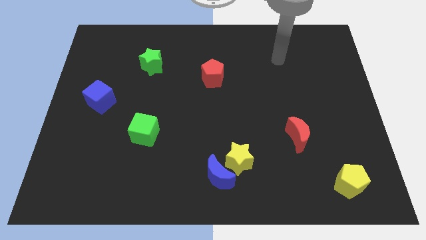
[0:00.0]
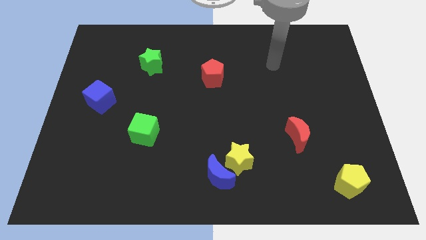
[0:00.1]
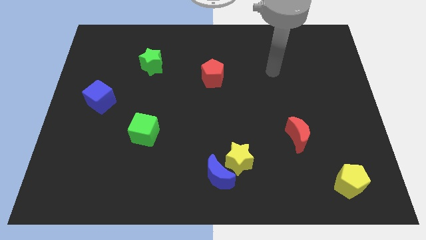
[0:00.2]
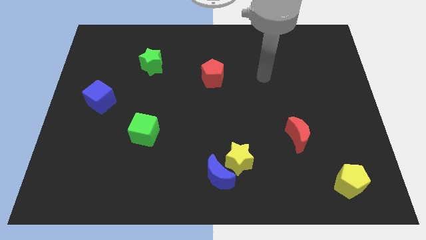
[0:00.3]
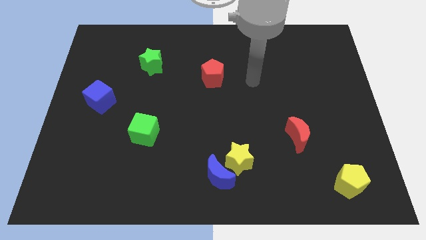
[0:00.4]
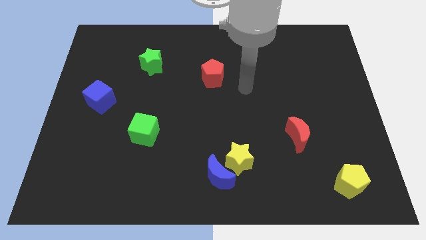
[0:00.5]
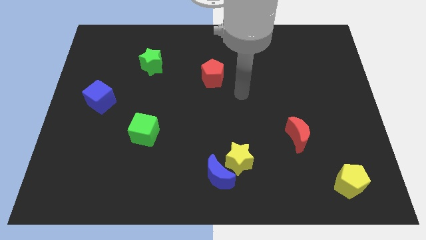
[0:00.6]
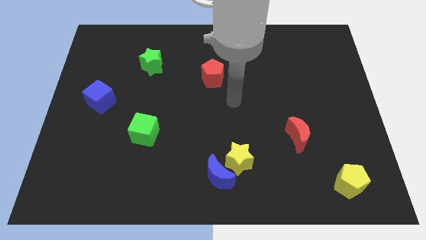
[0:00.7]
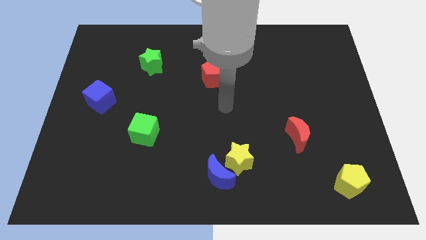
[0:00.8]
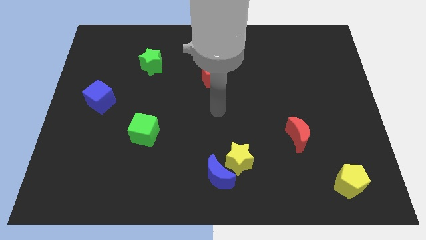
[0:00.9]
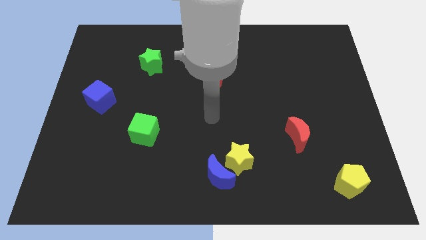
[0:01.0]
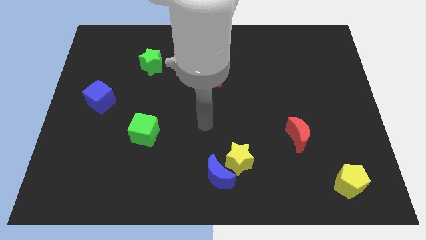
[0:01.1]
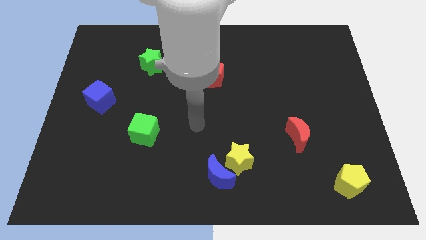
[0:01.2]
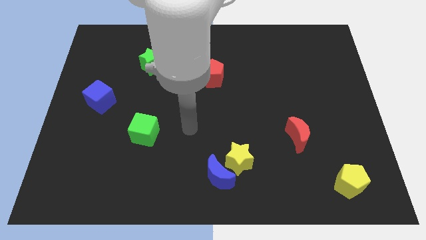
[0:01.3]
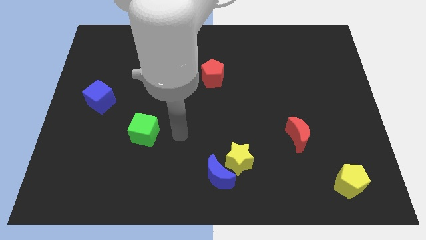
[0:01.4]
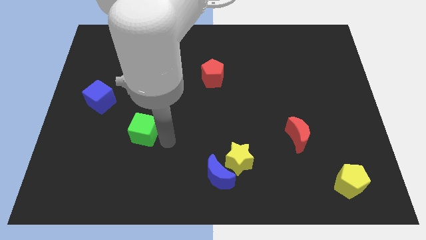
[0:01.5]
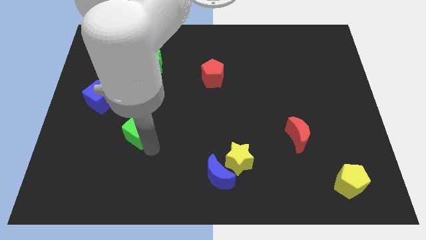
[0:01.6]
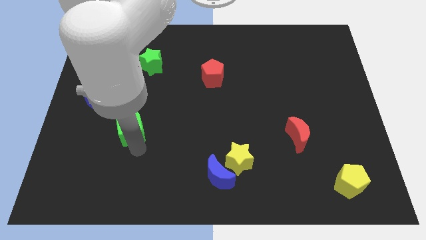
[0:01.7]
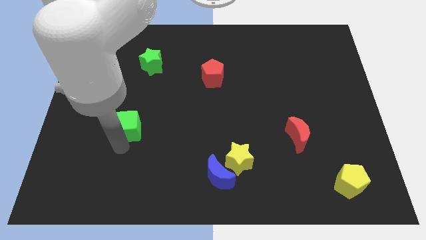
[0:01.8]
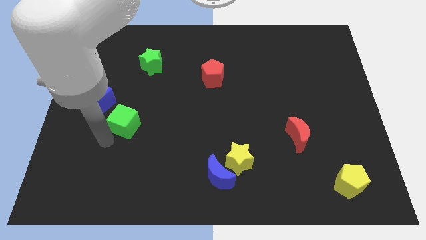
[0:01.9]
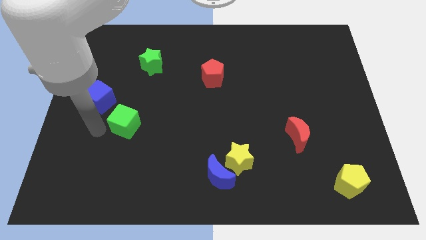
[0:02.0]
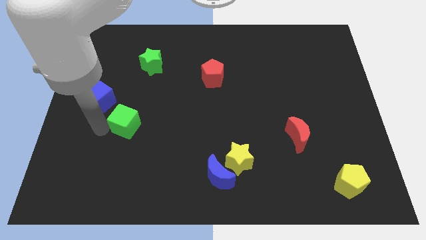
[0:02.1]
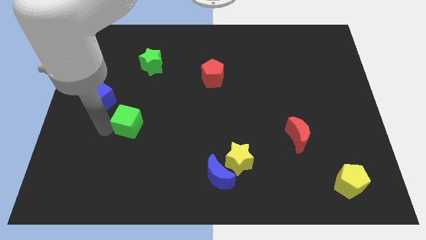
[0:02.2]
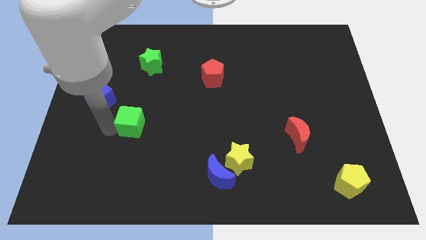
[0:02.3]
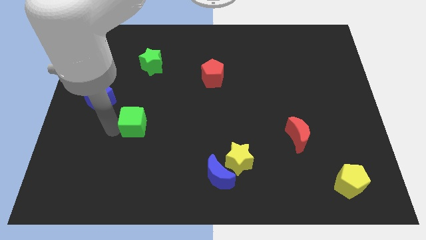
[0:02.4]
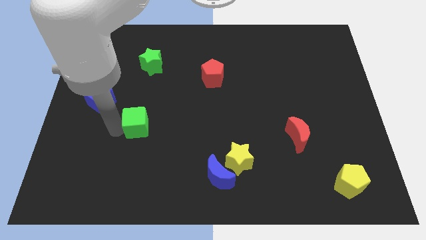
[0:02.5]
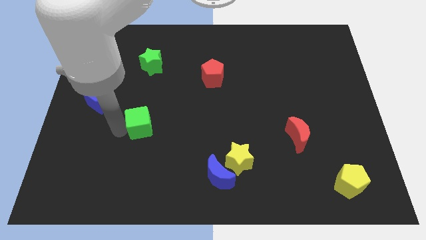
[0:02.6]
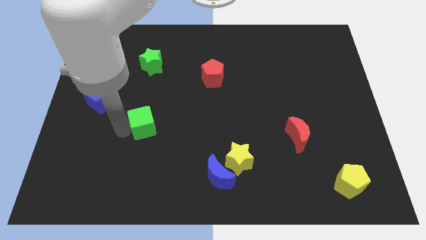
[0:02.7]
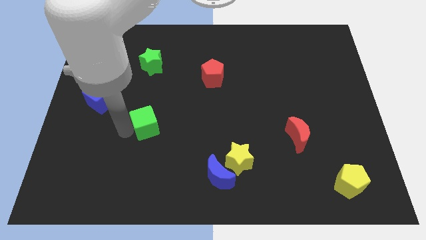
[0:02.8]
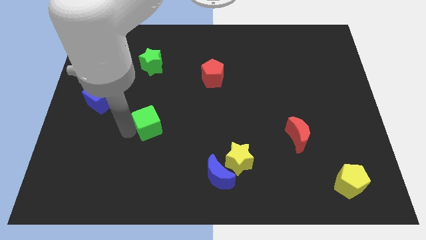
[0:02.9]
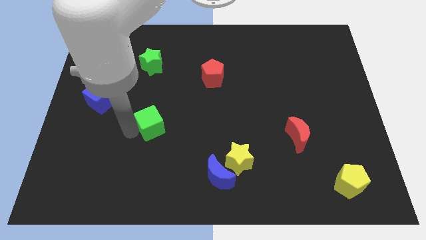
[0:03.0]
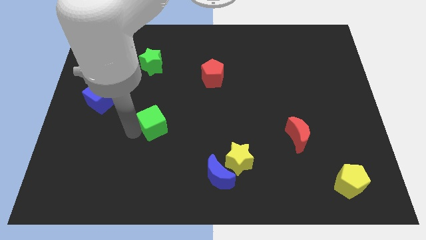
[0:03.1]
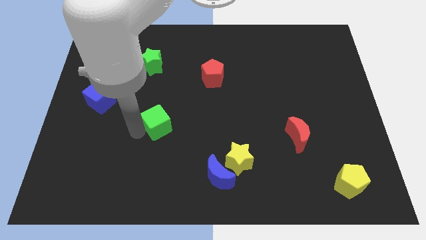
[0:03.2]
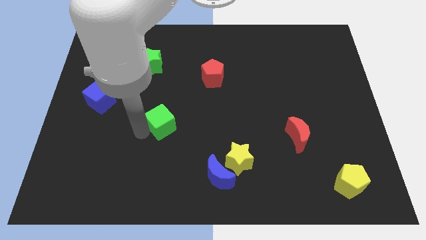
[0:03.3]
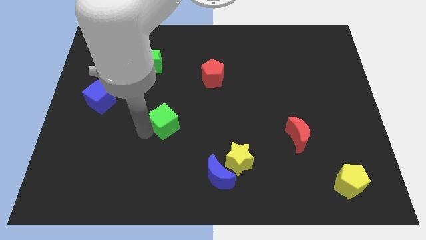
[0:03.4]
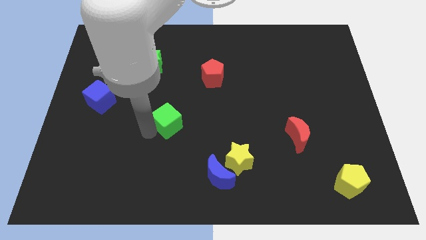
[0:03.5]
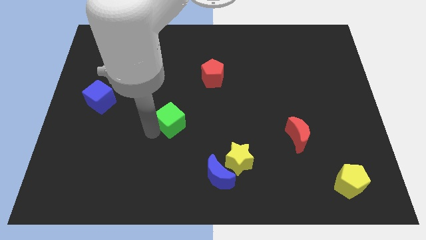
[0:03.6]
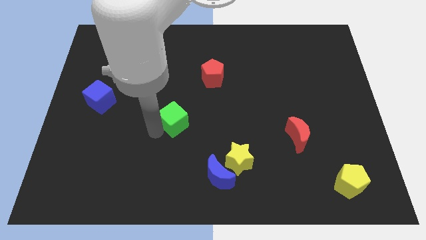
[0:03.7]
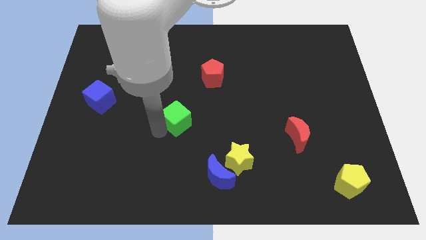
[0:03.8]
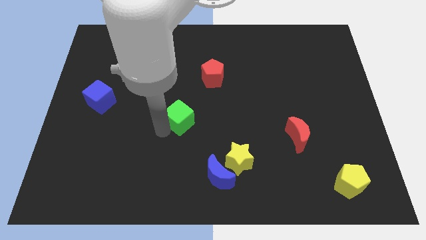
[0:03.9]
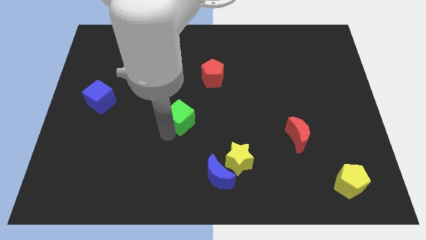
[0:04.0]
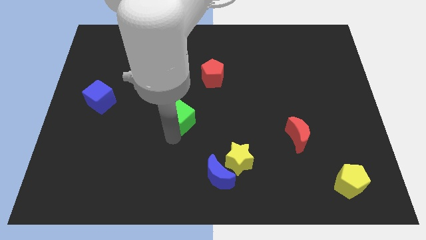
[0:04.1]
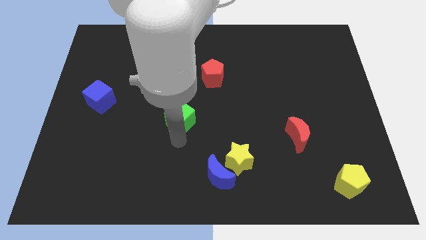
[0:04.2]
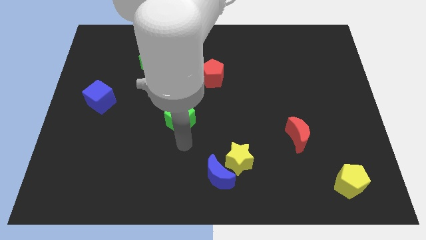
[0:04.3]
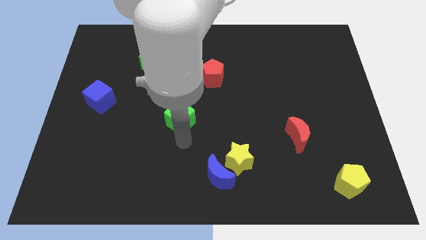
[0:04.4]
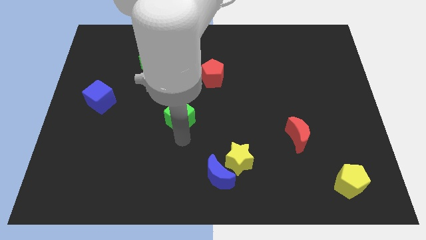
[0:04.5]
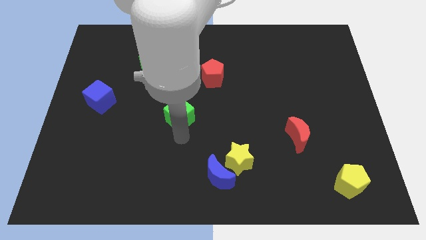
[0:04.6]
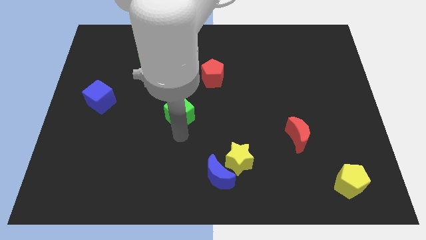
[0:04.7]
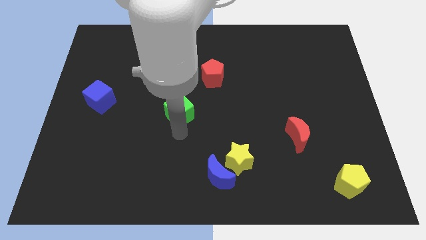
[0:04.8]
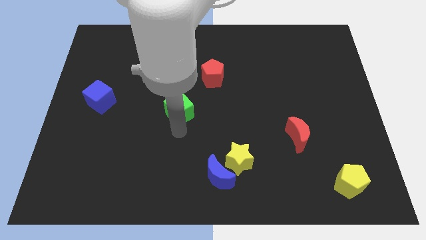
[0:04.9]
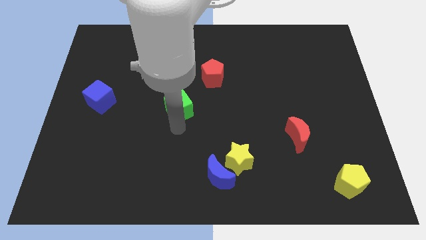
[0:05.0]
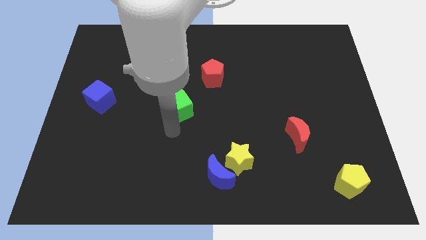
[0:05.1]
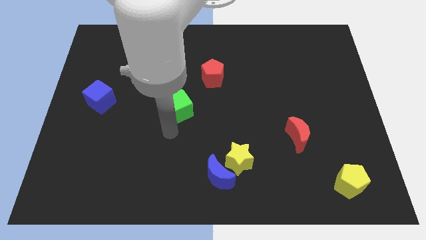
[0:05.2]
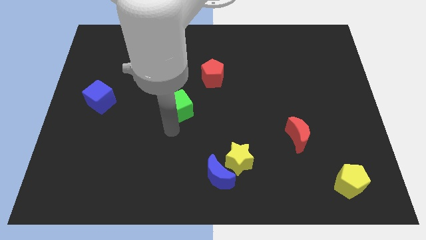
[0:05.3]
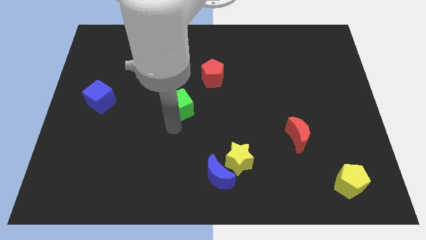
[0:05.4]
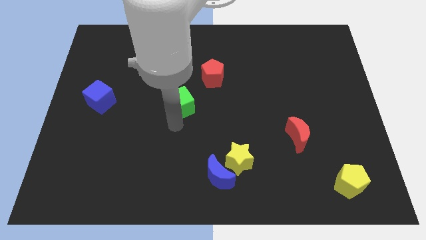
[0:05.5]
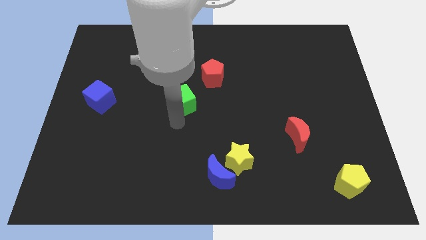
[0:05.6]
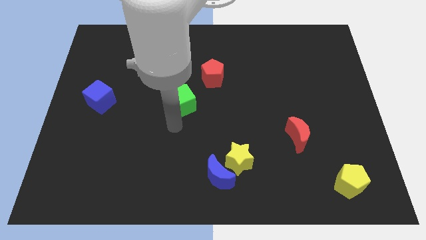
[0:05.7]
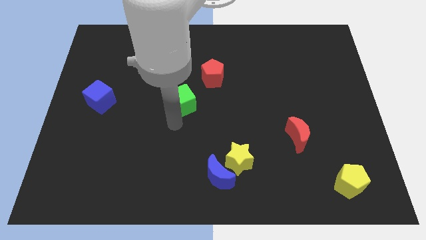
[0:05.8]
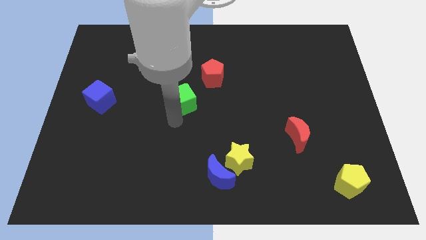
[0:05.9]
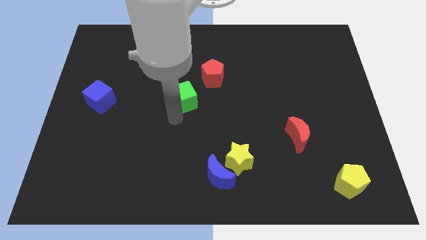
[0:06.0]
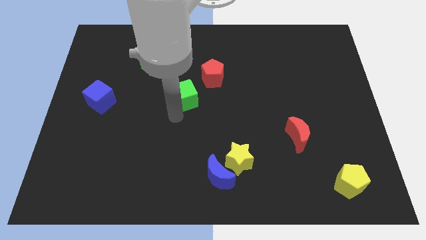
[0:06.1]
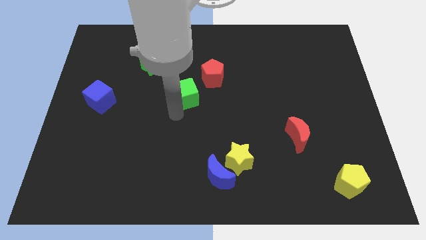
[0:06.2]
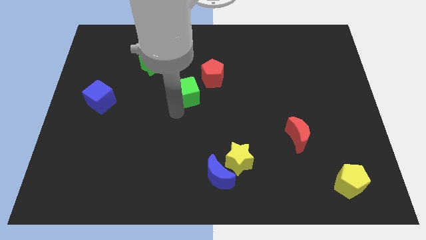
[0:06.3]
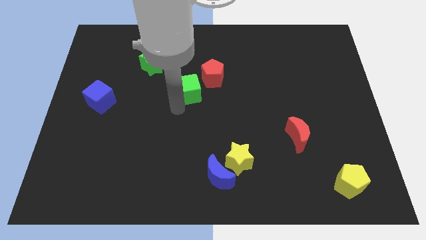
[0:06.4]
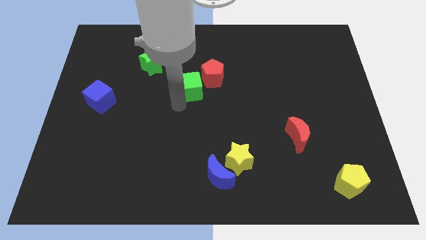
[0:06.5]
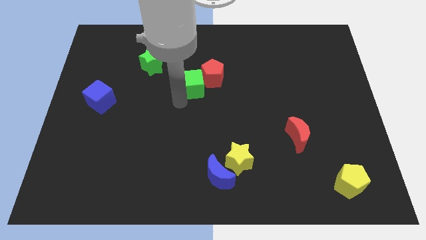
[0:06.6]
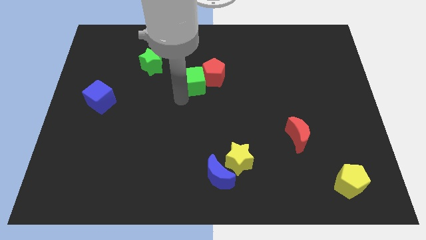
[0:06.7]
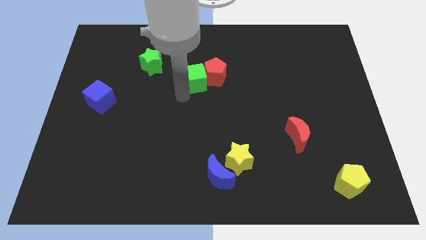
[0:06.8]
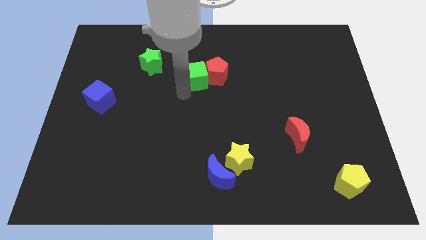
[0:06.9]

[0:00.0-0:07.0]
put the green cube to the top left side of the red pentagon
